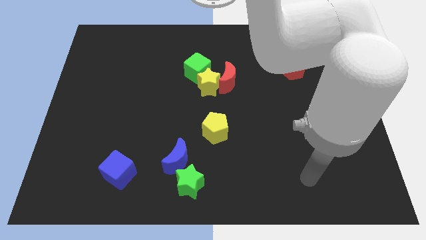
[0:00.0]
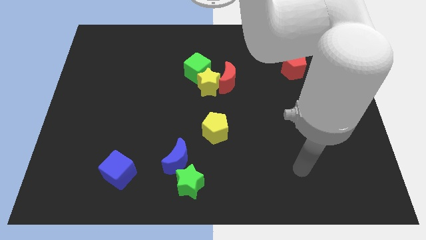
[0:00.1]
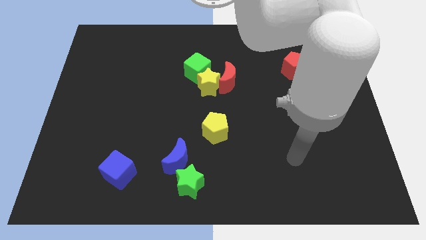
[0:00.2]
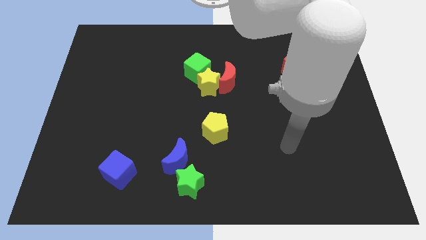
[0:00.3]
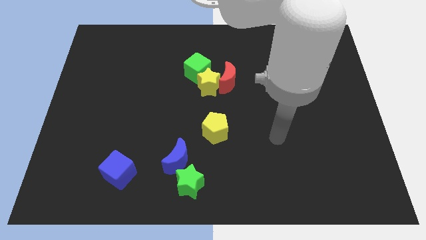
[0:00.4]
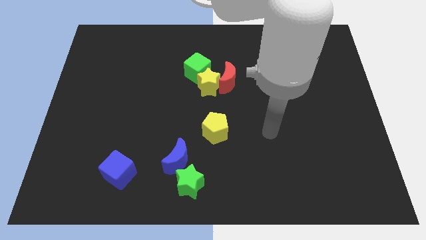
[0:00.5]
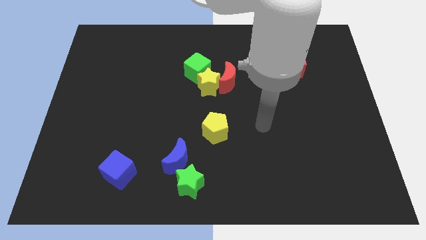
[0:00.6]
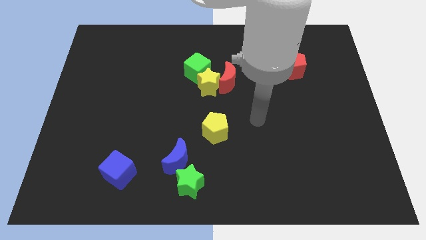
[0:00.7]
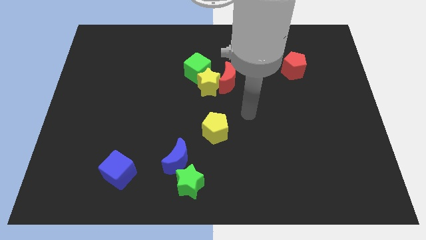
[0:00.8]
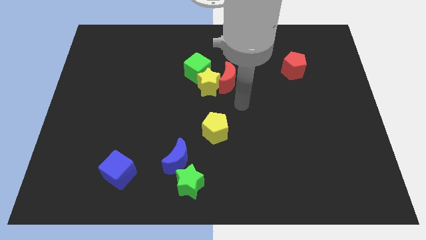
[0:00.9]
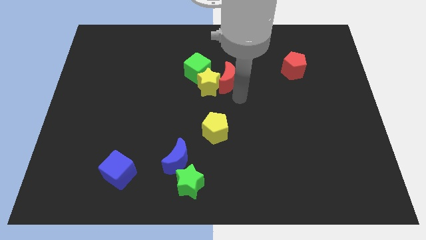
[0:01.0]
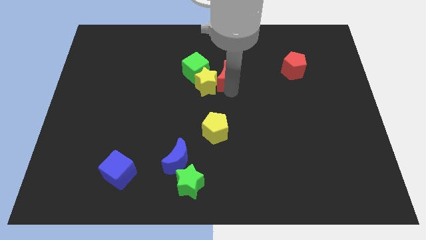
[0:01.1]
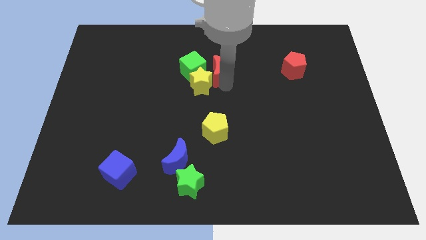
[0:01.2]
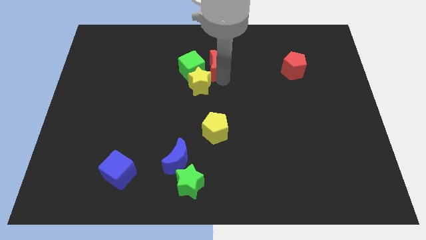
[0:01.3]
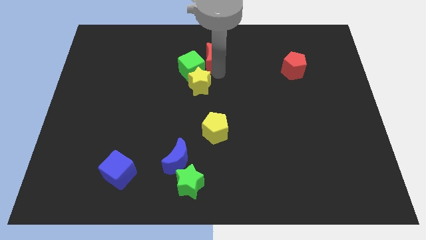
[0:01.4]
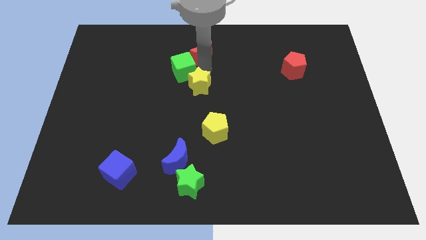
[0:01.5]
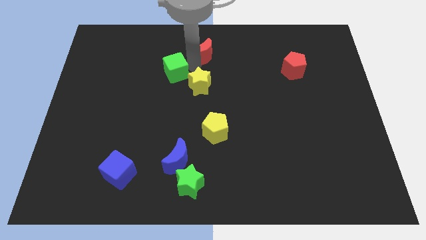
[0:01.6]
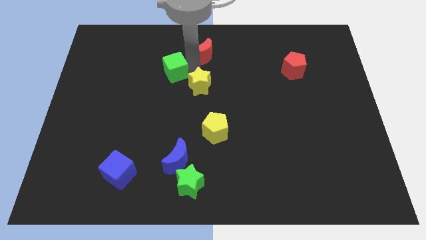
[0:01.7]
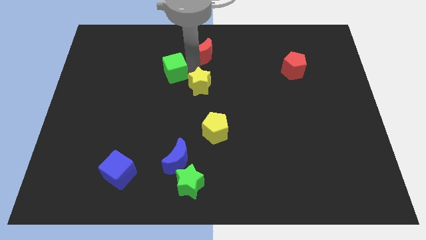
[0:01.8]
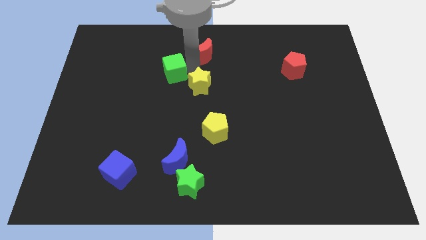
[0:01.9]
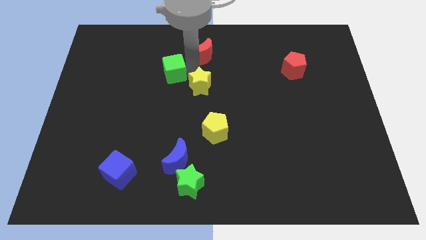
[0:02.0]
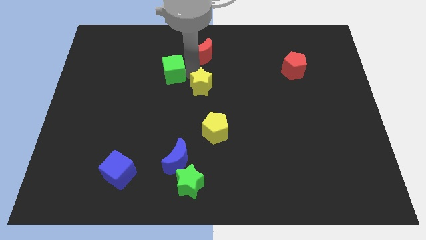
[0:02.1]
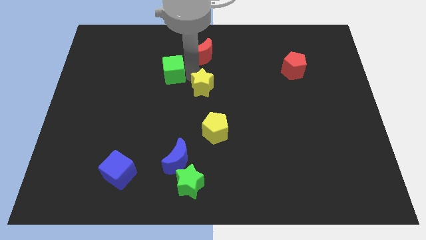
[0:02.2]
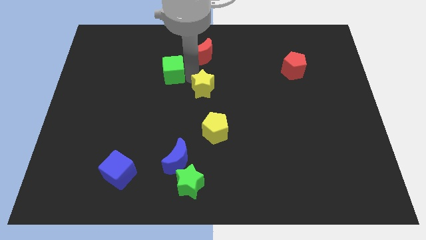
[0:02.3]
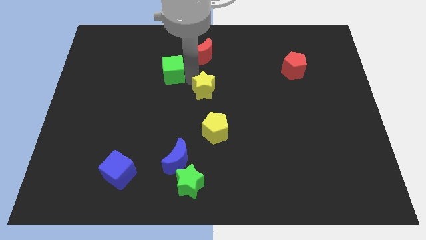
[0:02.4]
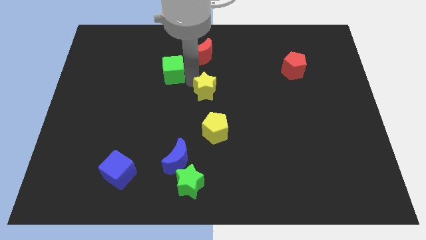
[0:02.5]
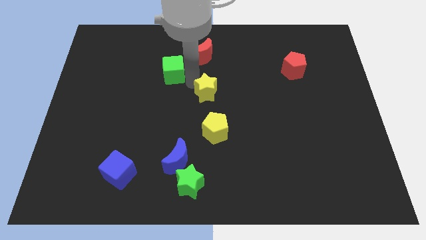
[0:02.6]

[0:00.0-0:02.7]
move the yellow star away from the red moon and green cube

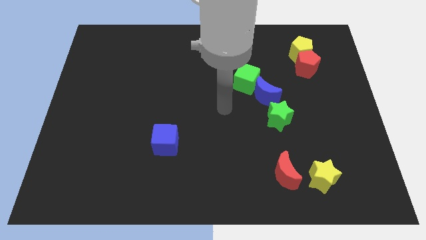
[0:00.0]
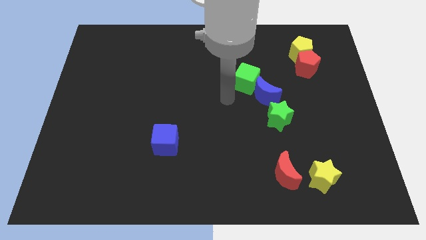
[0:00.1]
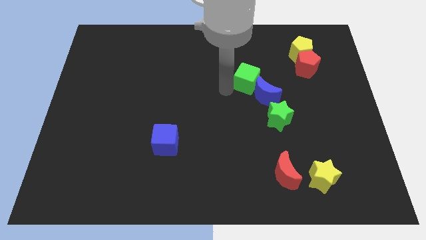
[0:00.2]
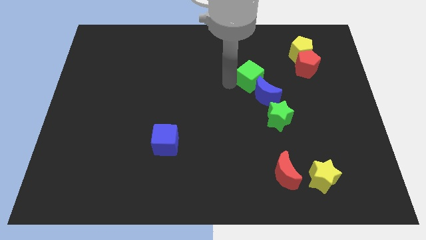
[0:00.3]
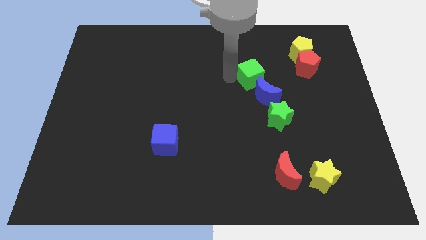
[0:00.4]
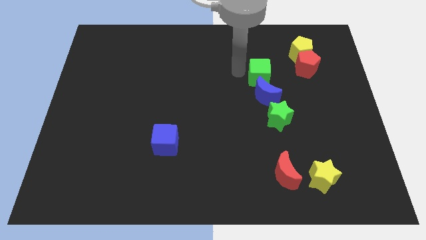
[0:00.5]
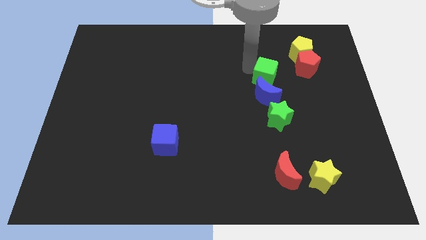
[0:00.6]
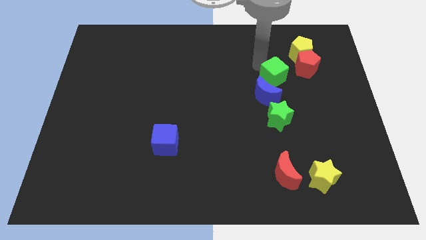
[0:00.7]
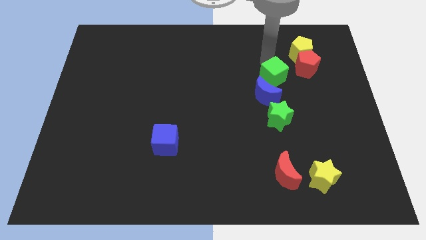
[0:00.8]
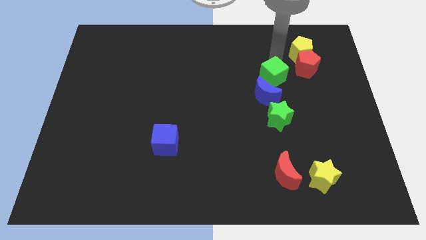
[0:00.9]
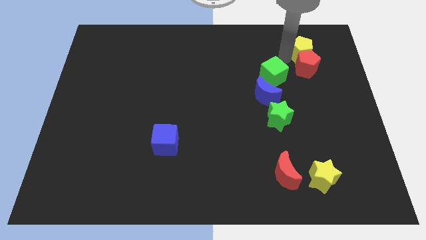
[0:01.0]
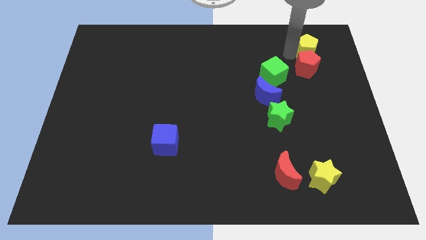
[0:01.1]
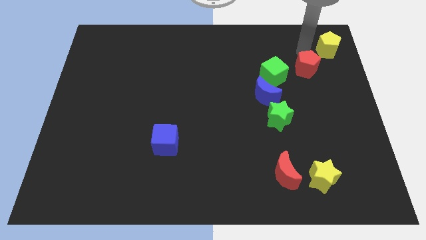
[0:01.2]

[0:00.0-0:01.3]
separate the red pentagon from the yellow pentagon

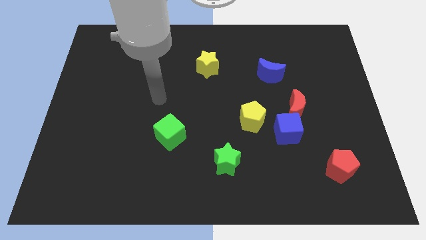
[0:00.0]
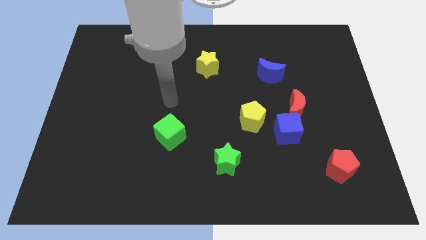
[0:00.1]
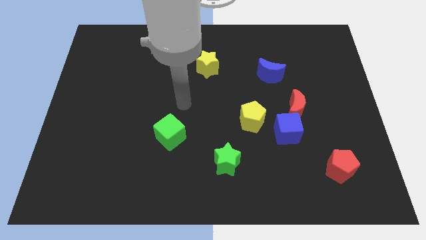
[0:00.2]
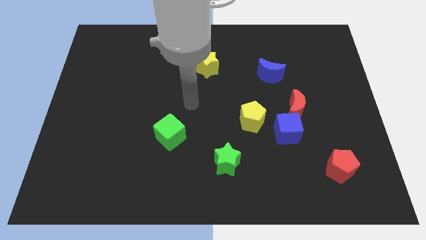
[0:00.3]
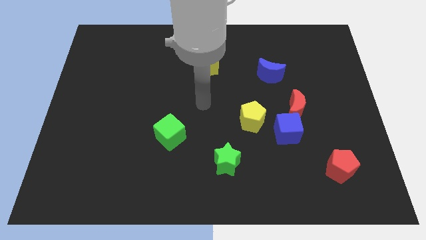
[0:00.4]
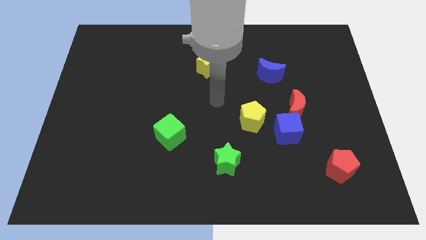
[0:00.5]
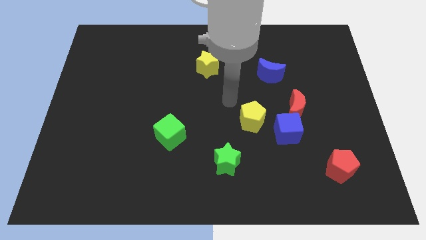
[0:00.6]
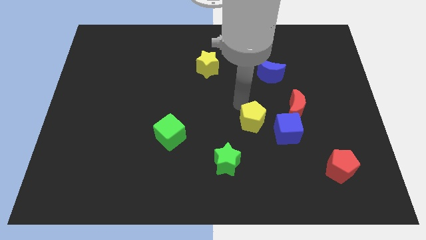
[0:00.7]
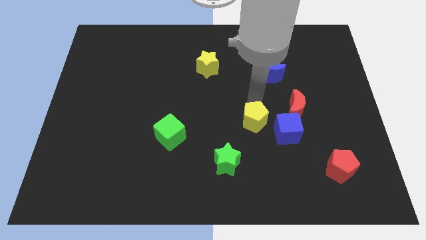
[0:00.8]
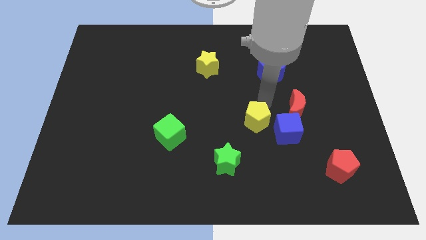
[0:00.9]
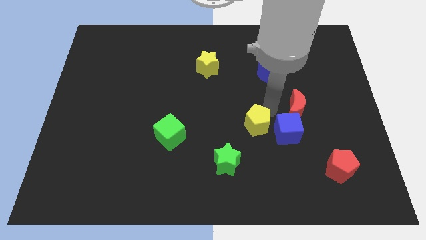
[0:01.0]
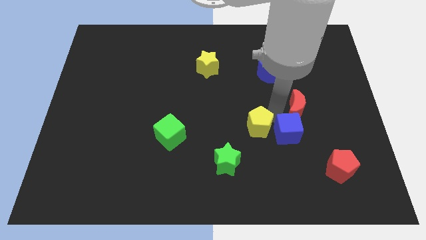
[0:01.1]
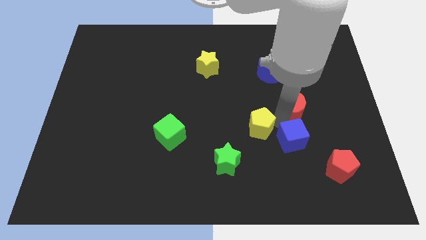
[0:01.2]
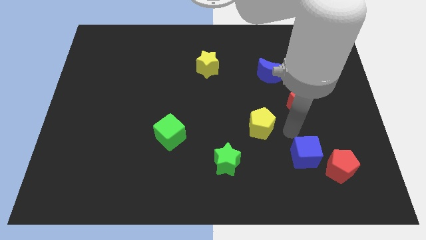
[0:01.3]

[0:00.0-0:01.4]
separate the red moon from the blue cube

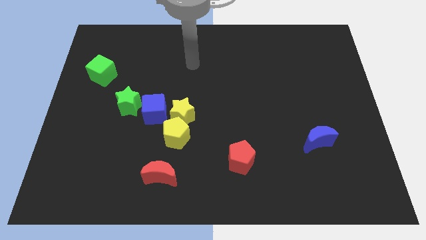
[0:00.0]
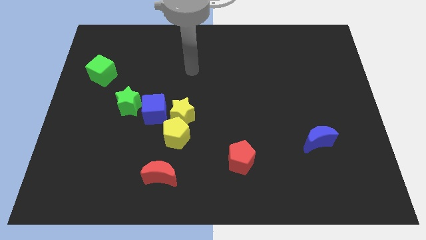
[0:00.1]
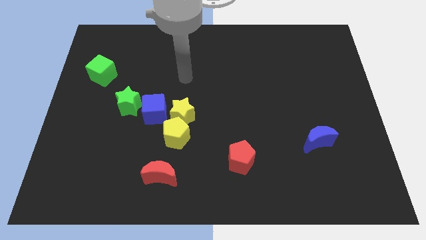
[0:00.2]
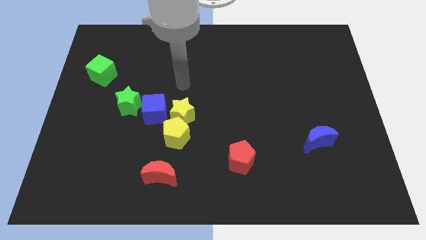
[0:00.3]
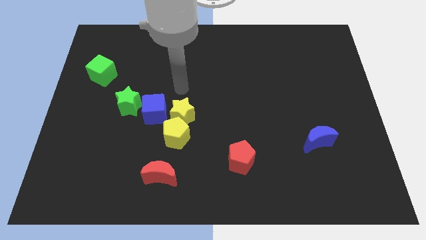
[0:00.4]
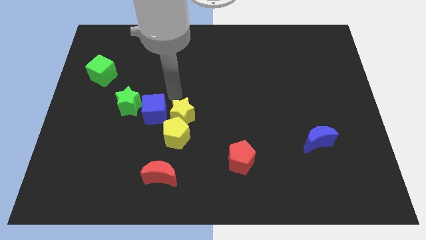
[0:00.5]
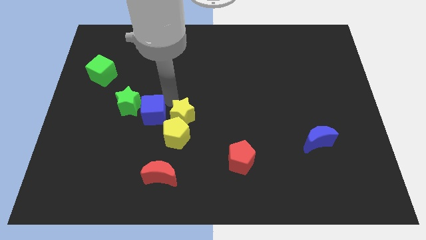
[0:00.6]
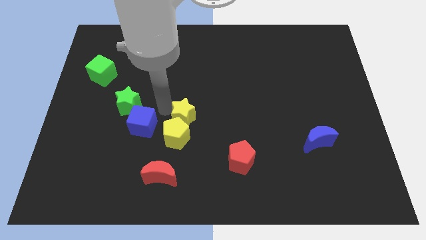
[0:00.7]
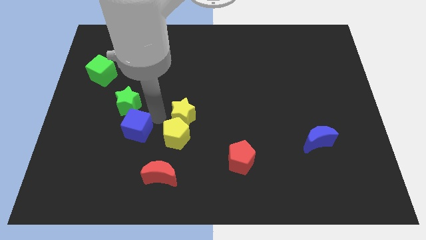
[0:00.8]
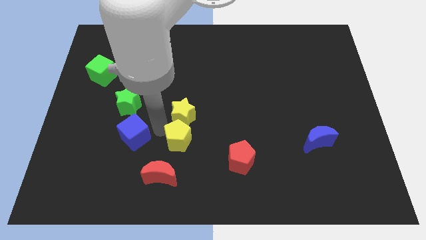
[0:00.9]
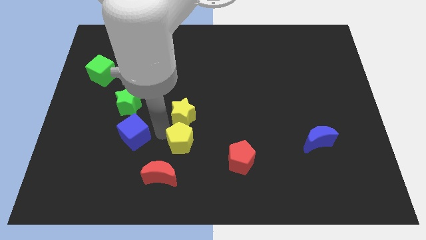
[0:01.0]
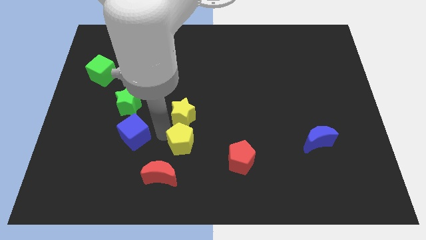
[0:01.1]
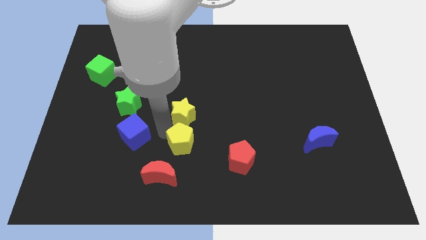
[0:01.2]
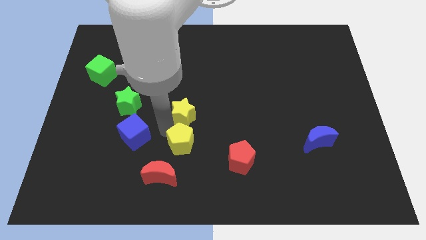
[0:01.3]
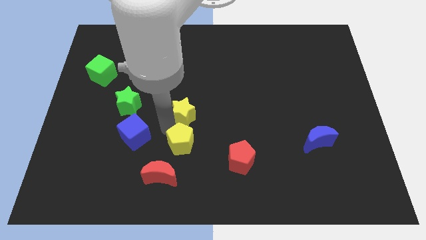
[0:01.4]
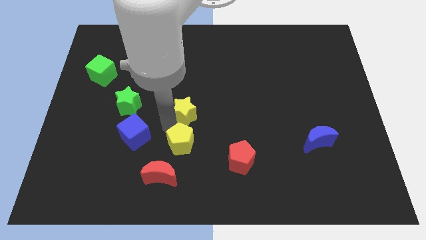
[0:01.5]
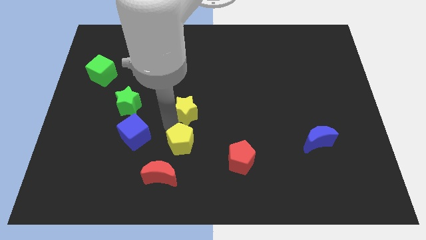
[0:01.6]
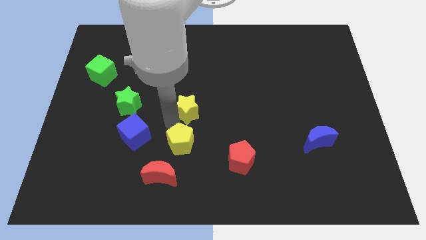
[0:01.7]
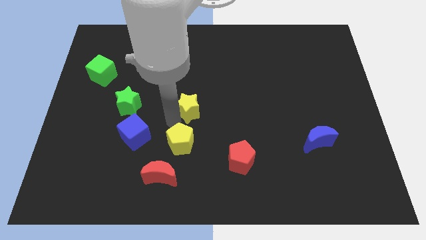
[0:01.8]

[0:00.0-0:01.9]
separate the yellow star from the yellow pentagon and blue cube

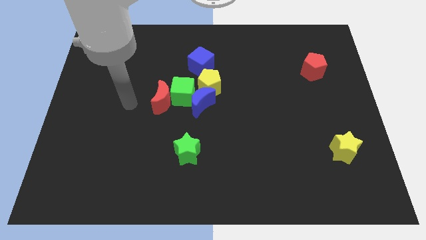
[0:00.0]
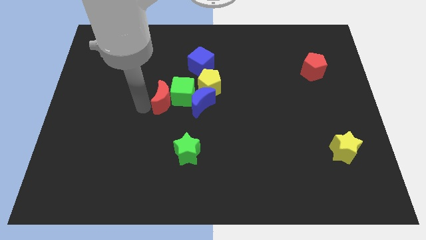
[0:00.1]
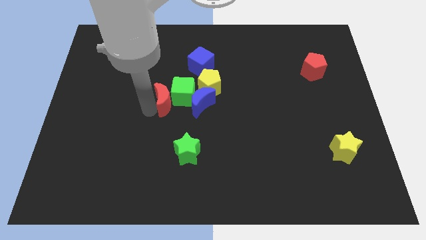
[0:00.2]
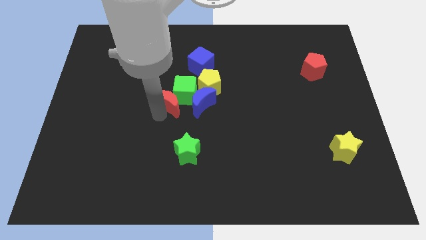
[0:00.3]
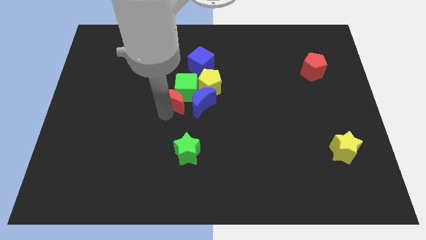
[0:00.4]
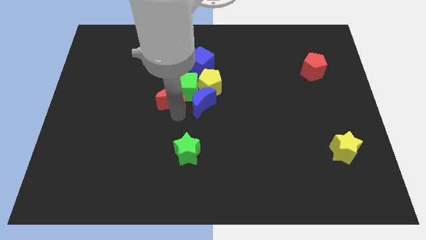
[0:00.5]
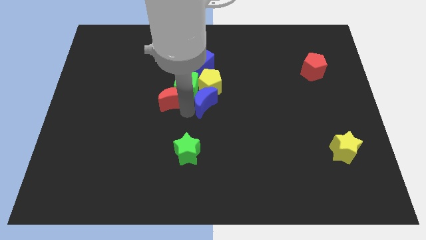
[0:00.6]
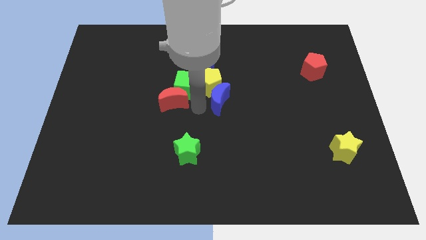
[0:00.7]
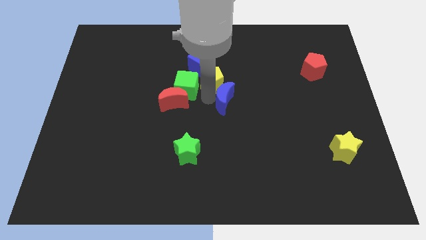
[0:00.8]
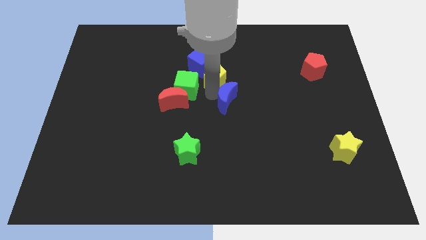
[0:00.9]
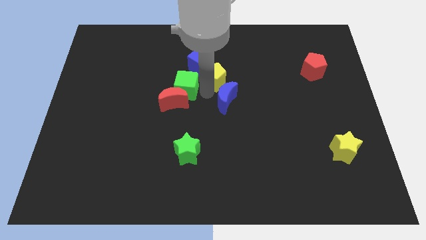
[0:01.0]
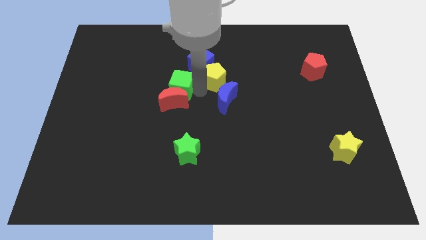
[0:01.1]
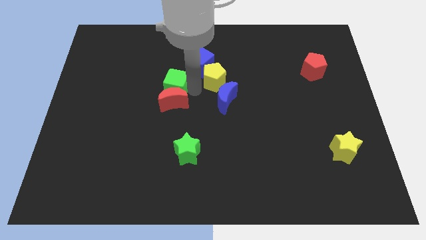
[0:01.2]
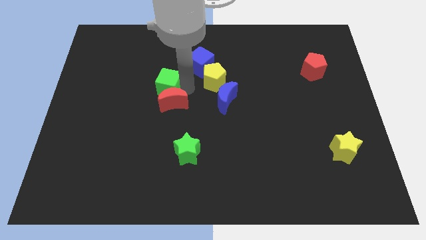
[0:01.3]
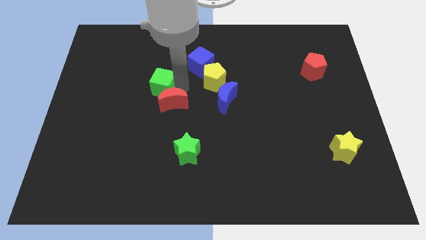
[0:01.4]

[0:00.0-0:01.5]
separate the green cube from the red moon, blue moon, and yellow pentagon

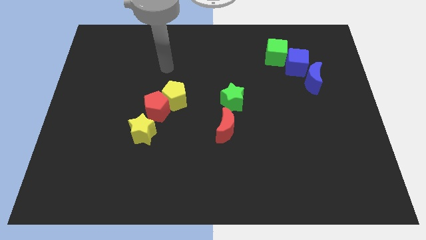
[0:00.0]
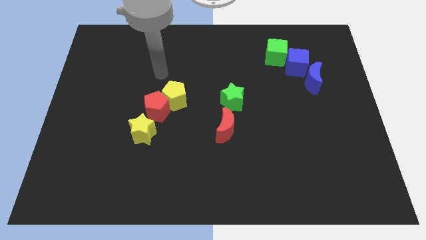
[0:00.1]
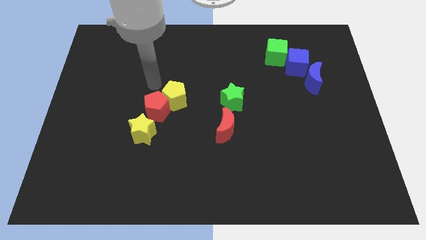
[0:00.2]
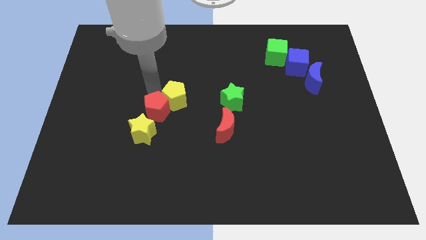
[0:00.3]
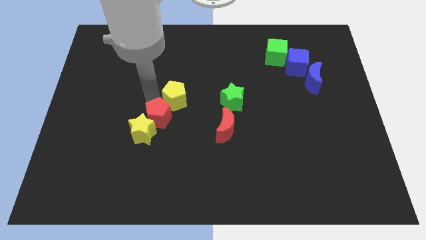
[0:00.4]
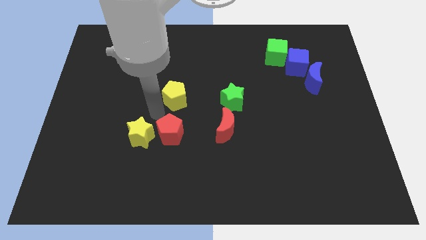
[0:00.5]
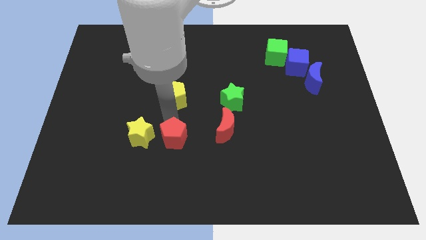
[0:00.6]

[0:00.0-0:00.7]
move the yellow pentagon away from the red pentagon
